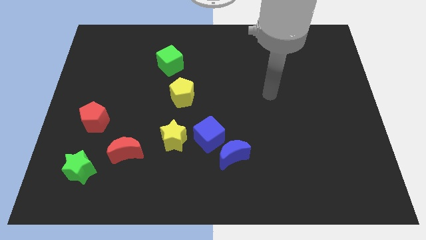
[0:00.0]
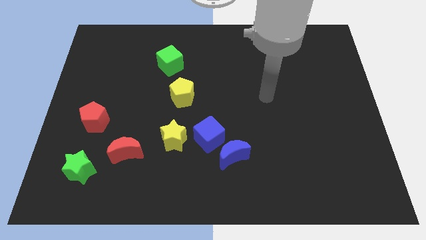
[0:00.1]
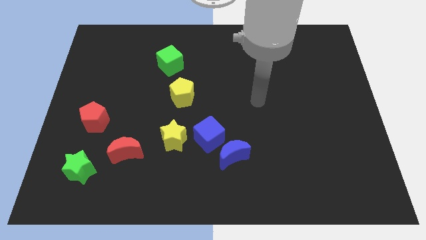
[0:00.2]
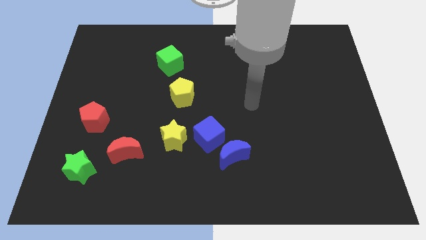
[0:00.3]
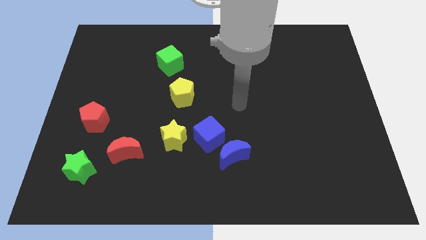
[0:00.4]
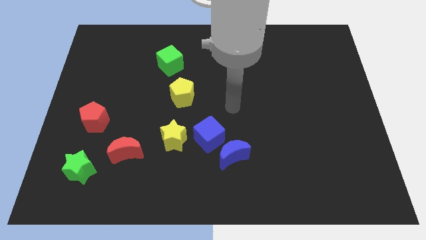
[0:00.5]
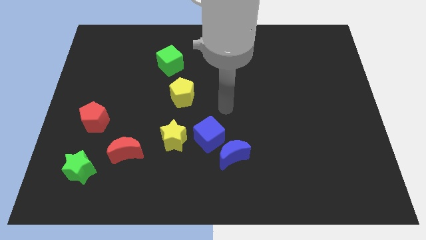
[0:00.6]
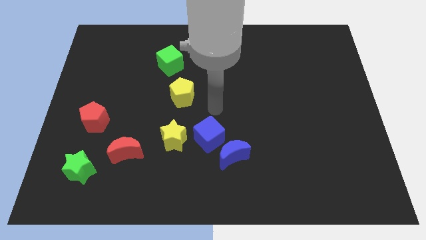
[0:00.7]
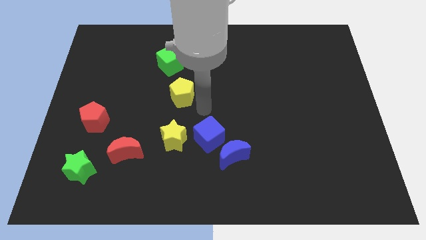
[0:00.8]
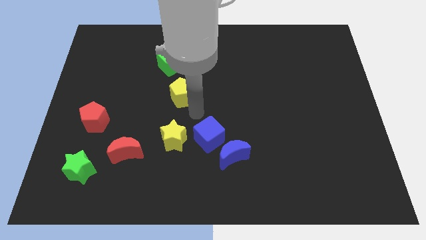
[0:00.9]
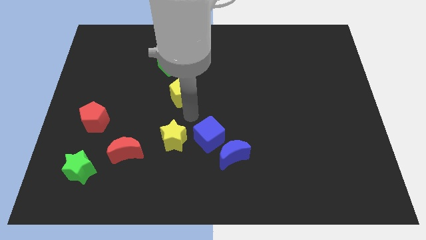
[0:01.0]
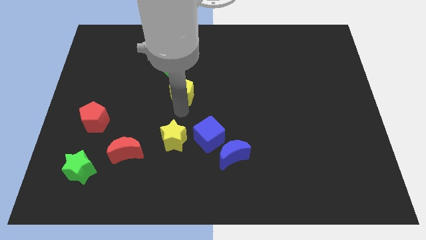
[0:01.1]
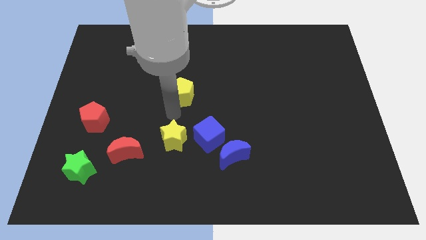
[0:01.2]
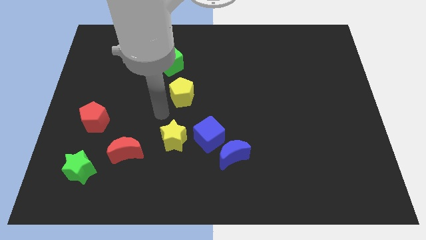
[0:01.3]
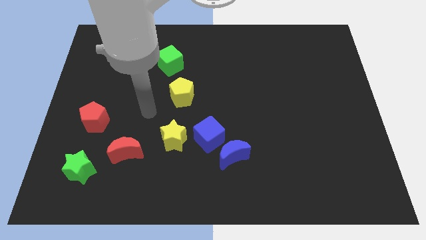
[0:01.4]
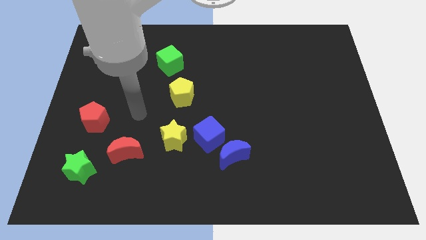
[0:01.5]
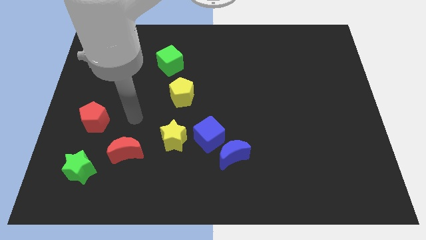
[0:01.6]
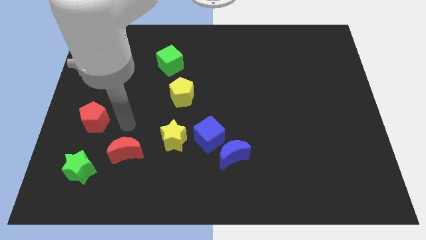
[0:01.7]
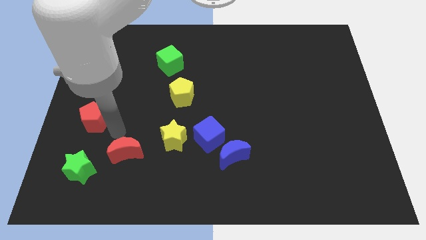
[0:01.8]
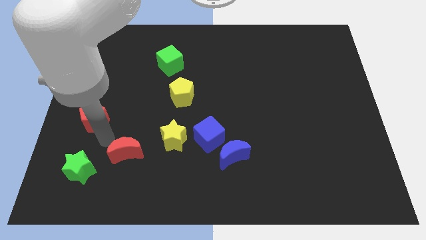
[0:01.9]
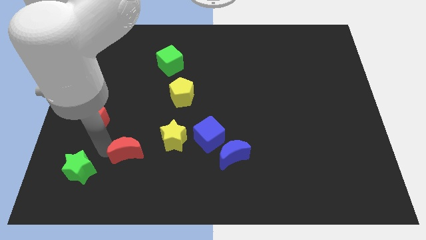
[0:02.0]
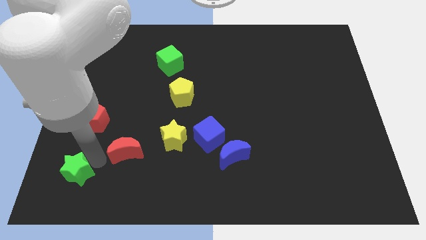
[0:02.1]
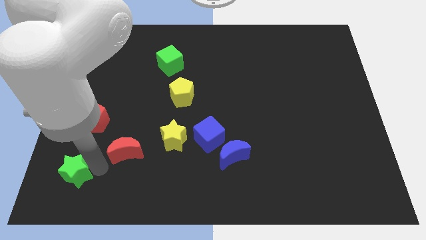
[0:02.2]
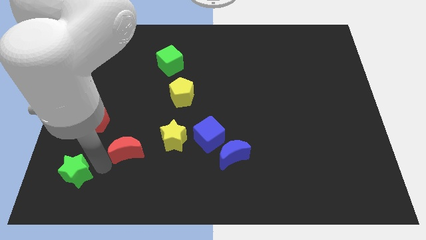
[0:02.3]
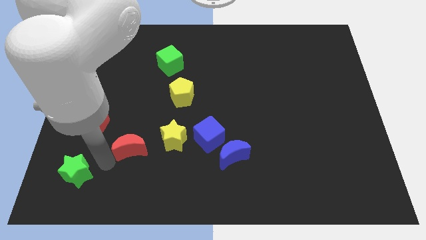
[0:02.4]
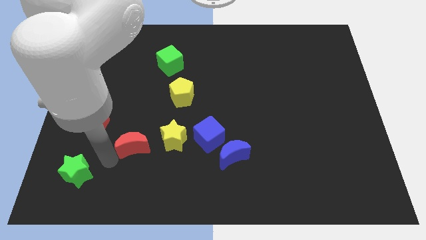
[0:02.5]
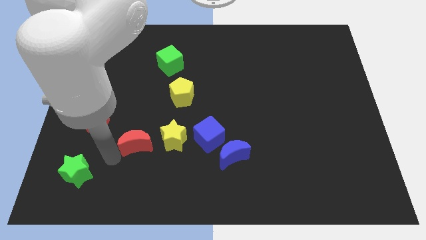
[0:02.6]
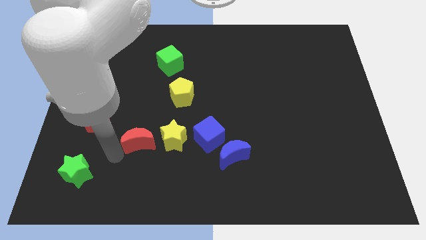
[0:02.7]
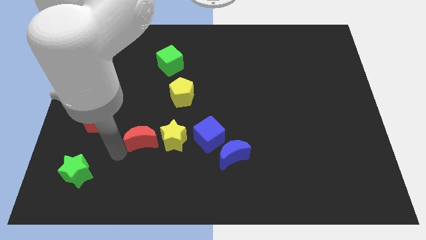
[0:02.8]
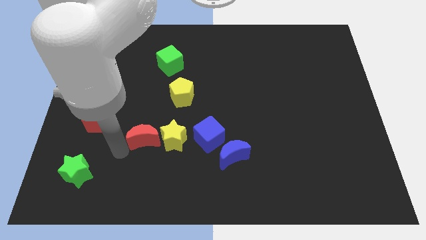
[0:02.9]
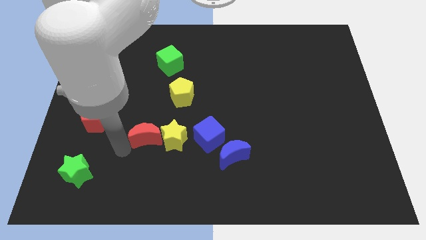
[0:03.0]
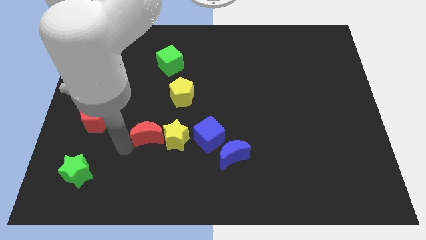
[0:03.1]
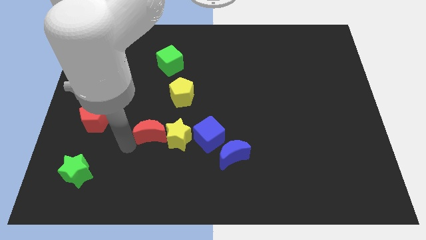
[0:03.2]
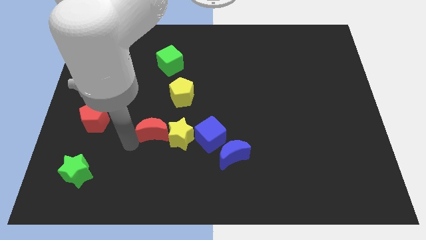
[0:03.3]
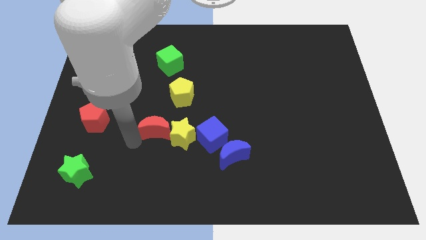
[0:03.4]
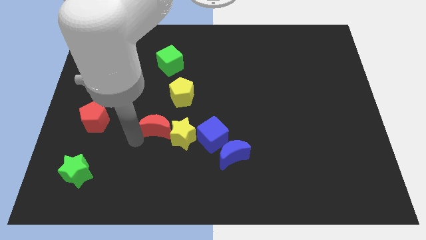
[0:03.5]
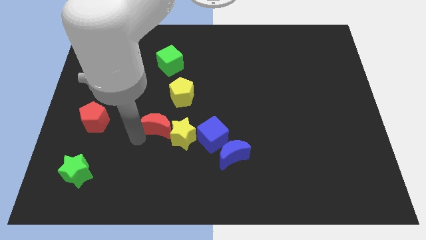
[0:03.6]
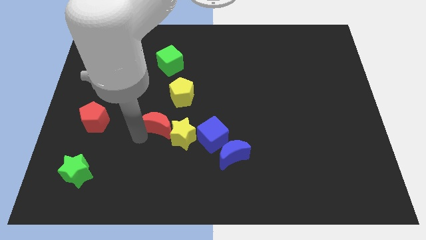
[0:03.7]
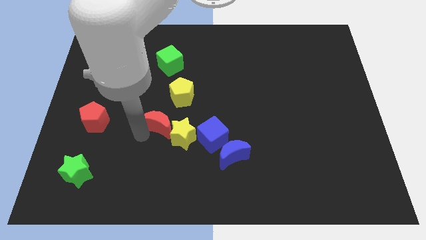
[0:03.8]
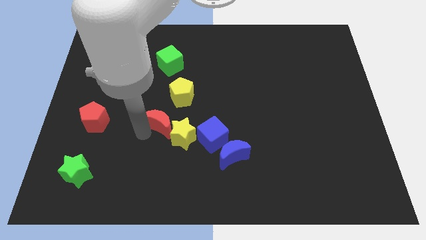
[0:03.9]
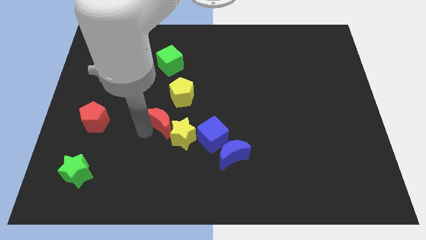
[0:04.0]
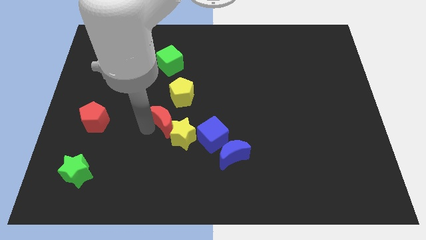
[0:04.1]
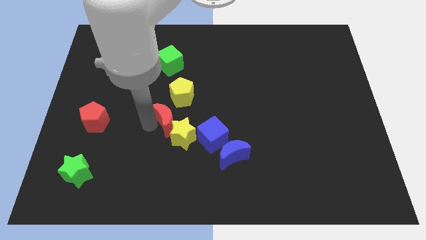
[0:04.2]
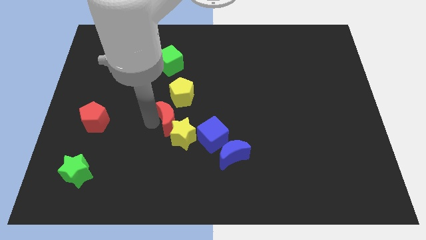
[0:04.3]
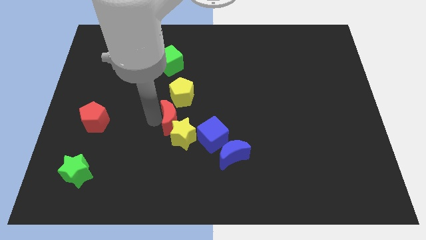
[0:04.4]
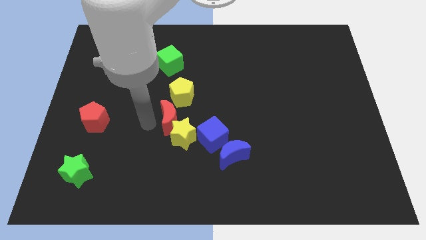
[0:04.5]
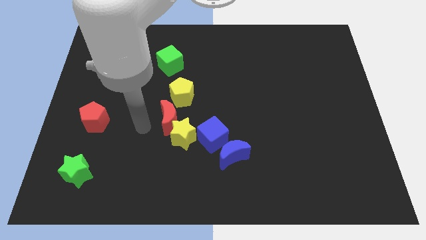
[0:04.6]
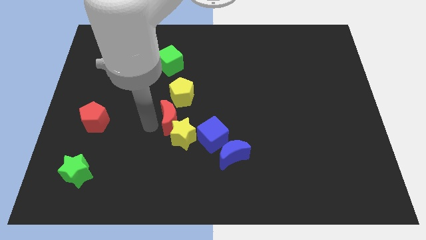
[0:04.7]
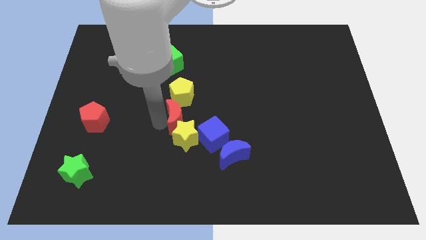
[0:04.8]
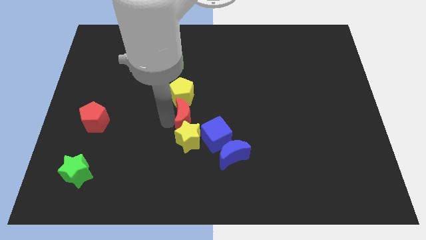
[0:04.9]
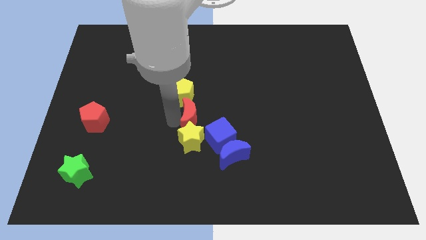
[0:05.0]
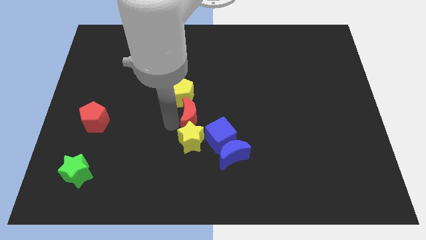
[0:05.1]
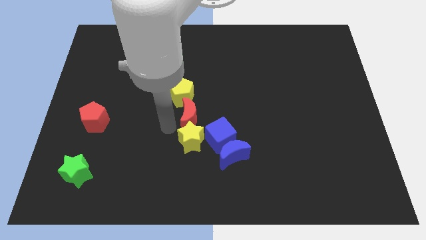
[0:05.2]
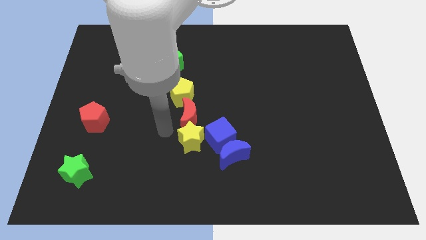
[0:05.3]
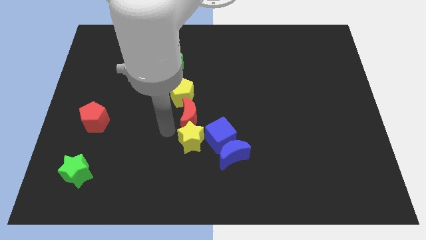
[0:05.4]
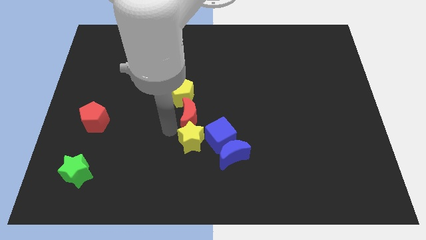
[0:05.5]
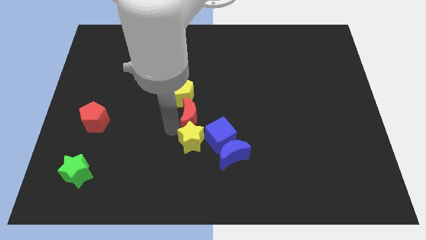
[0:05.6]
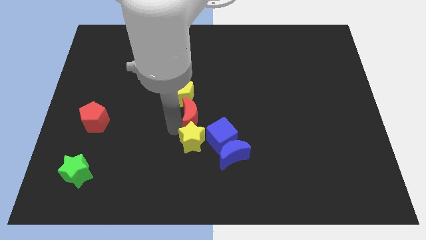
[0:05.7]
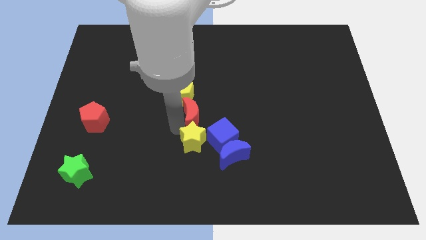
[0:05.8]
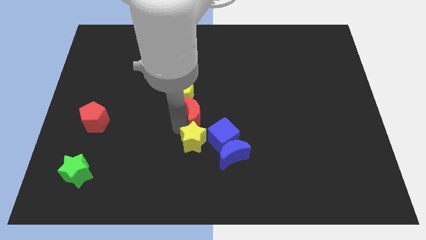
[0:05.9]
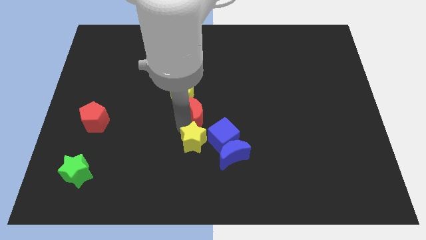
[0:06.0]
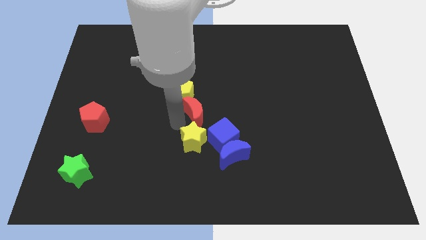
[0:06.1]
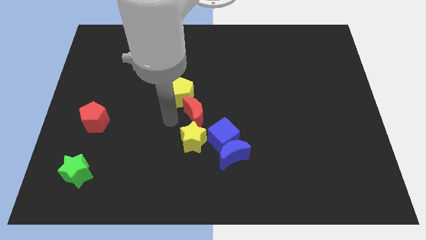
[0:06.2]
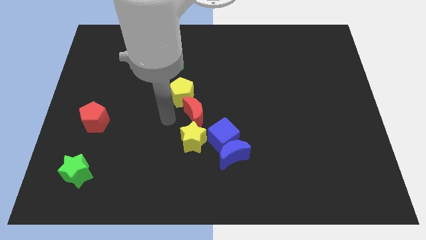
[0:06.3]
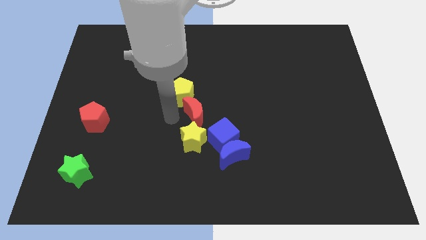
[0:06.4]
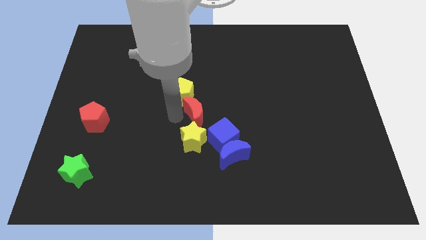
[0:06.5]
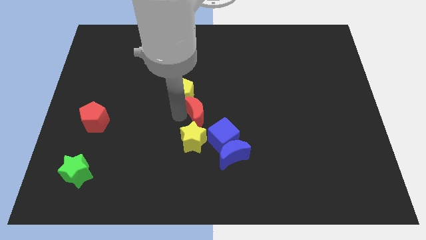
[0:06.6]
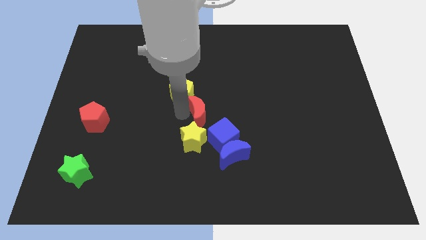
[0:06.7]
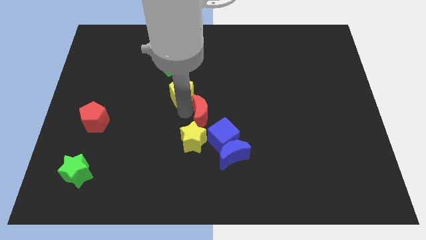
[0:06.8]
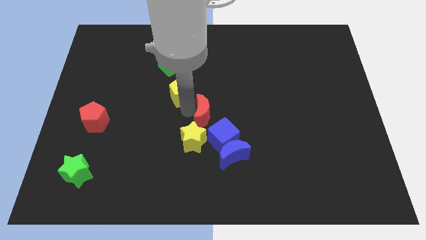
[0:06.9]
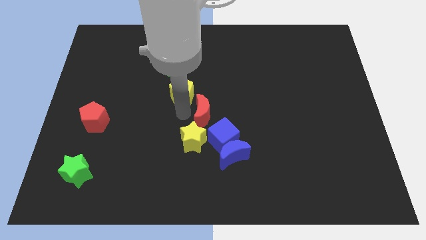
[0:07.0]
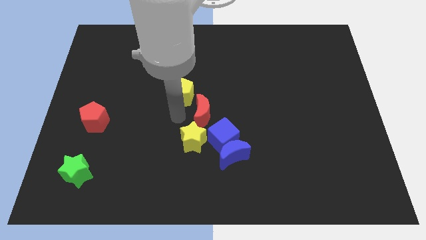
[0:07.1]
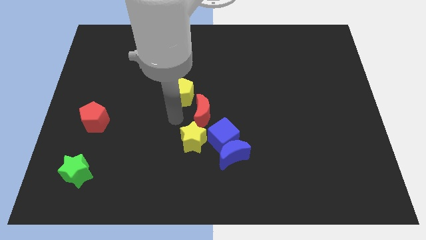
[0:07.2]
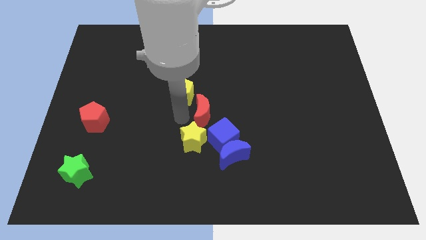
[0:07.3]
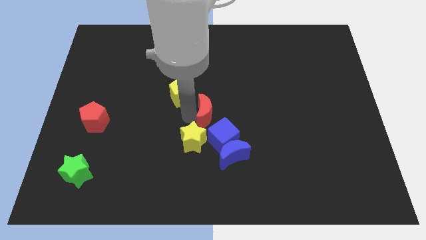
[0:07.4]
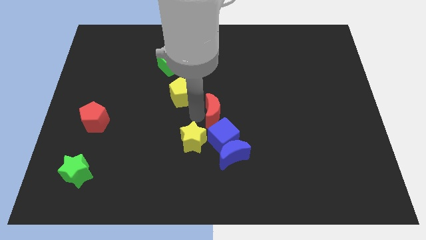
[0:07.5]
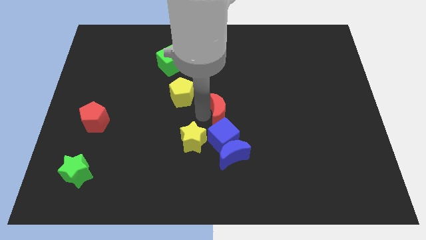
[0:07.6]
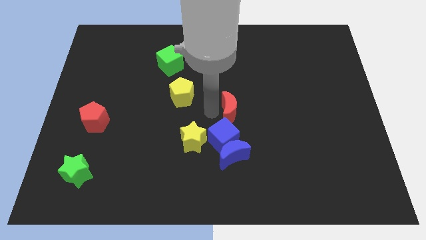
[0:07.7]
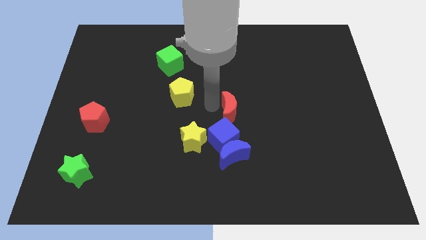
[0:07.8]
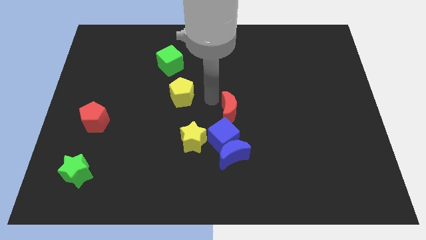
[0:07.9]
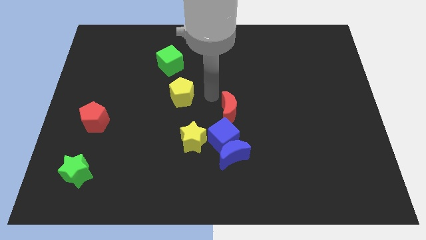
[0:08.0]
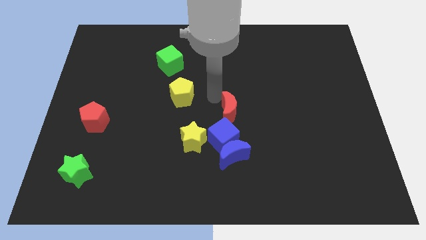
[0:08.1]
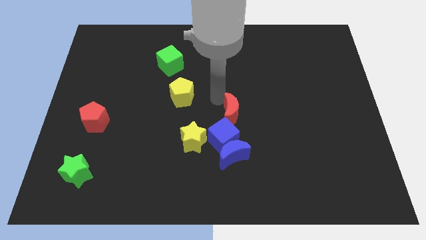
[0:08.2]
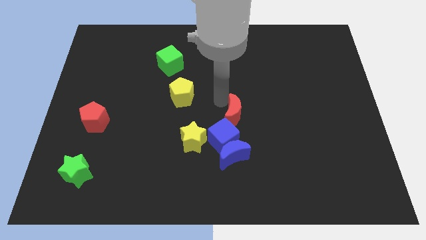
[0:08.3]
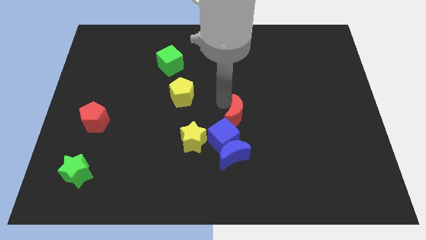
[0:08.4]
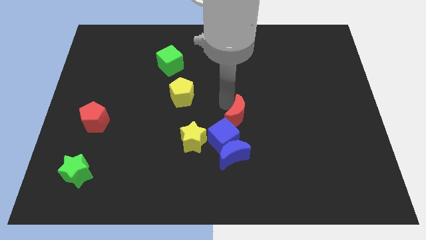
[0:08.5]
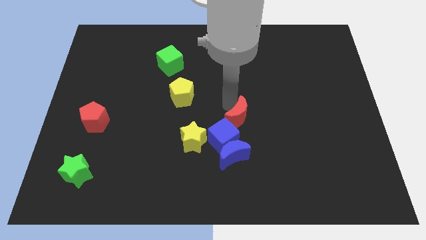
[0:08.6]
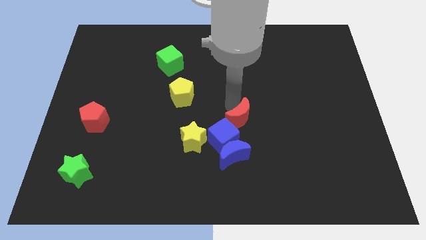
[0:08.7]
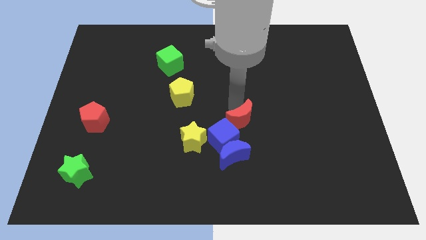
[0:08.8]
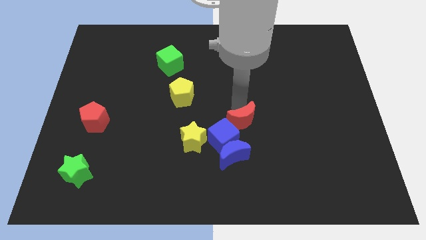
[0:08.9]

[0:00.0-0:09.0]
push the red moon to the top right side of the blue moon
